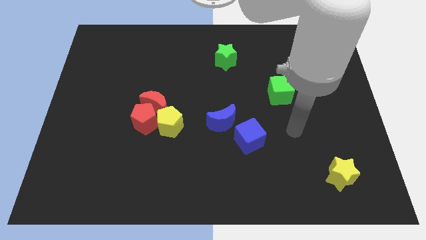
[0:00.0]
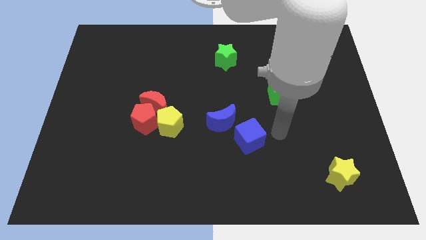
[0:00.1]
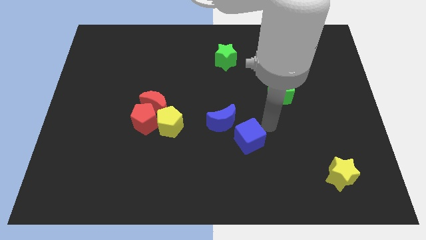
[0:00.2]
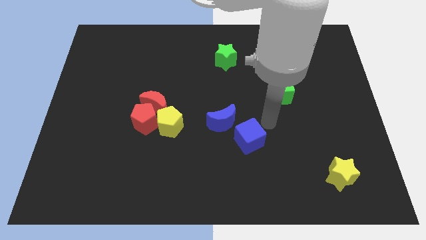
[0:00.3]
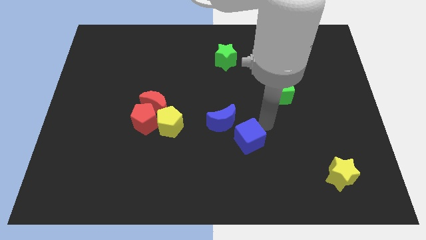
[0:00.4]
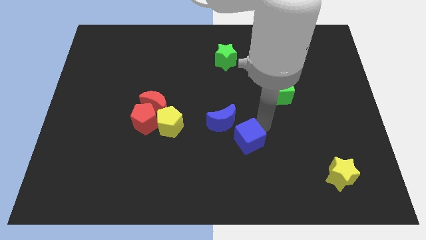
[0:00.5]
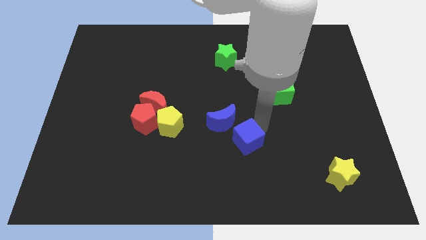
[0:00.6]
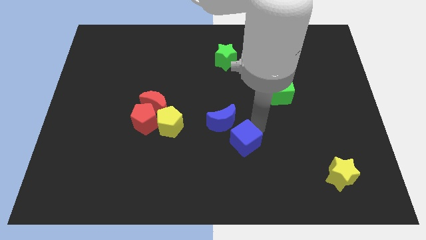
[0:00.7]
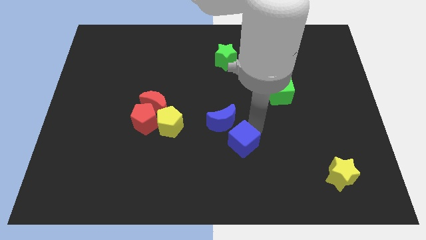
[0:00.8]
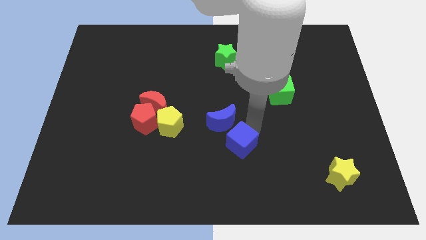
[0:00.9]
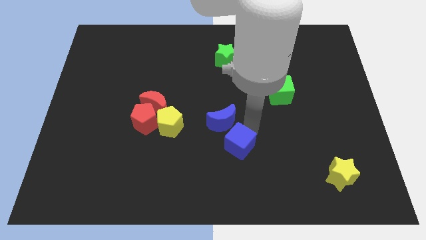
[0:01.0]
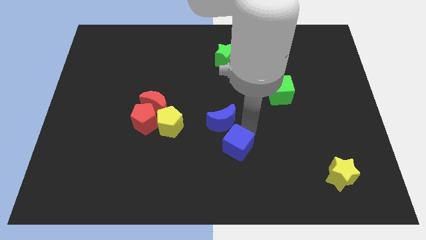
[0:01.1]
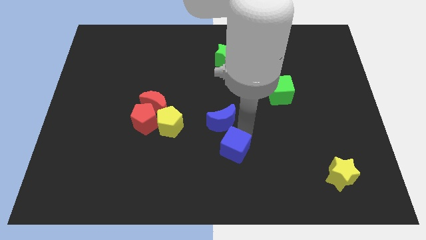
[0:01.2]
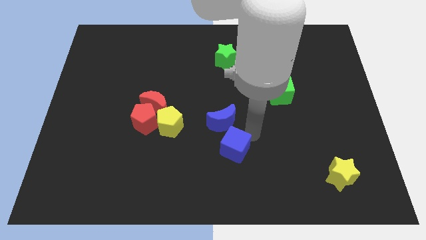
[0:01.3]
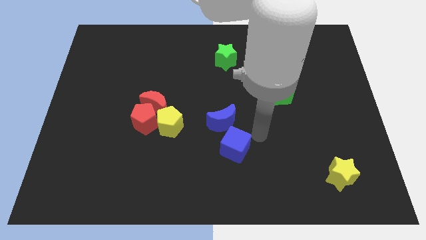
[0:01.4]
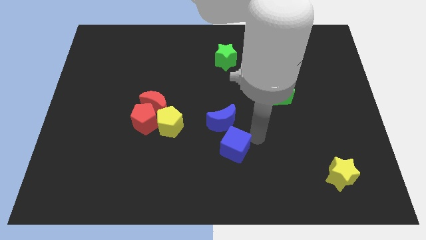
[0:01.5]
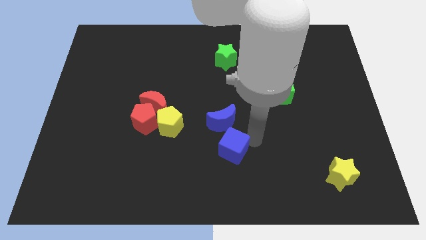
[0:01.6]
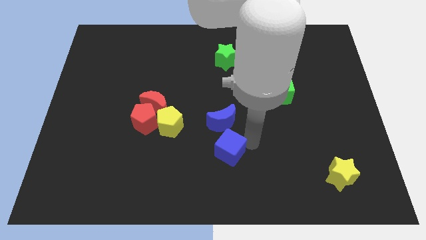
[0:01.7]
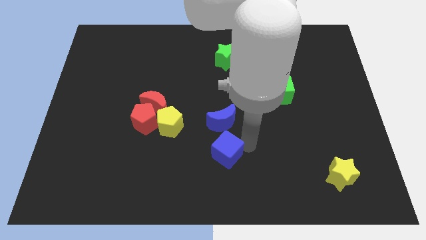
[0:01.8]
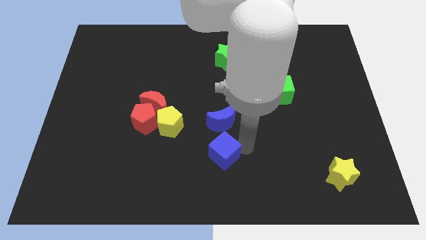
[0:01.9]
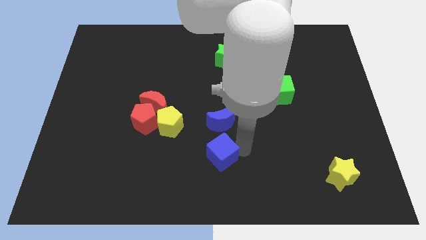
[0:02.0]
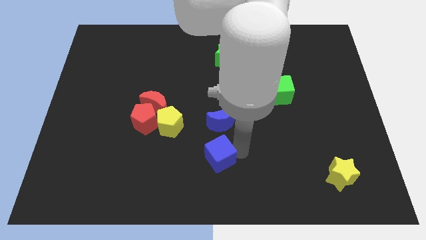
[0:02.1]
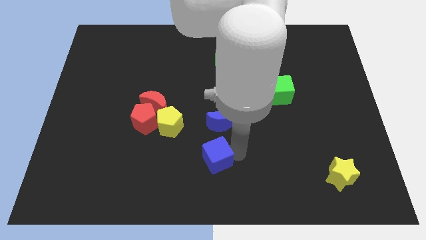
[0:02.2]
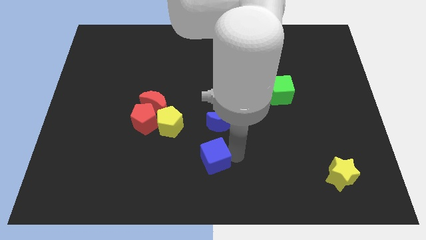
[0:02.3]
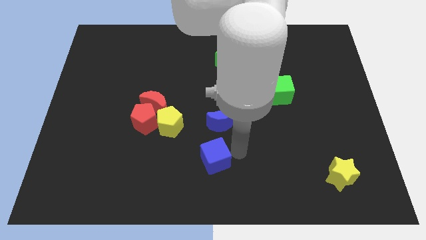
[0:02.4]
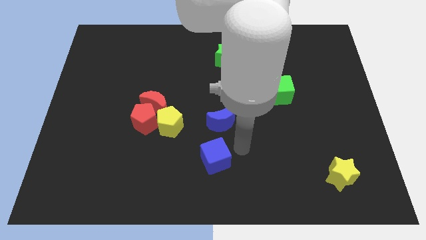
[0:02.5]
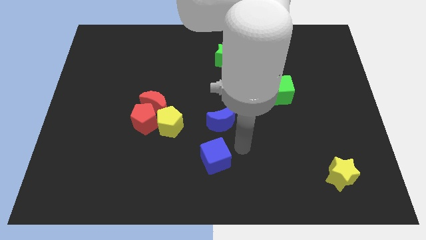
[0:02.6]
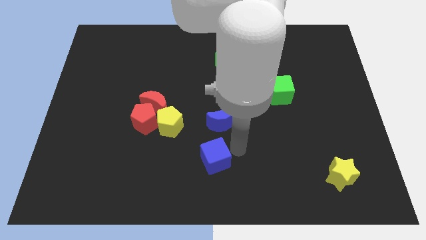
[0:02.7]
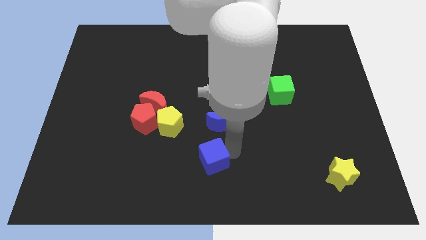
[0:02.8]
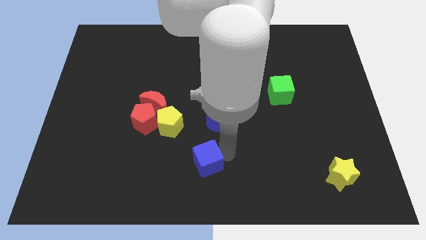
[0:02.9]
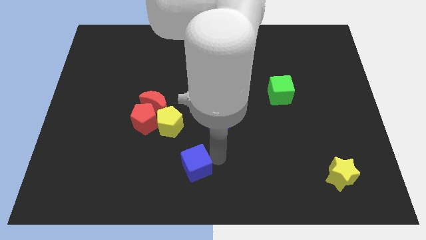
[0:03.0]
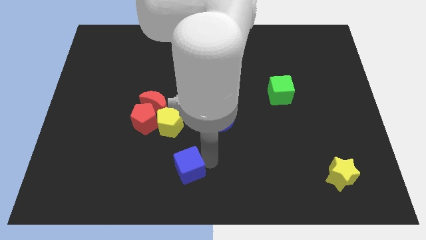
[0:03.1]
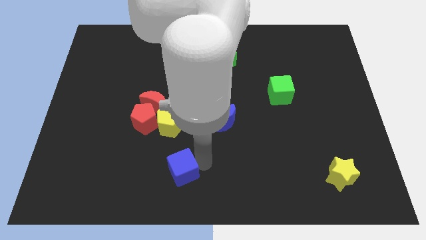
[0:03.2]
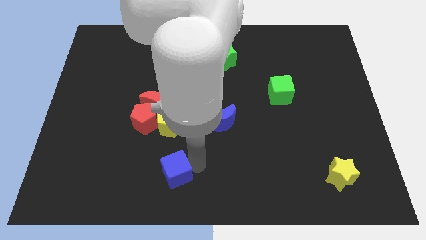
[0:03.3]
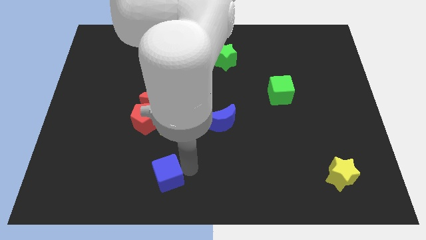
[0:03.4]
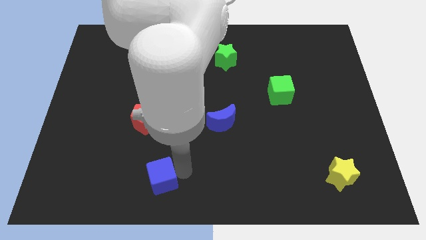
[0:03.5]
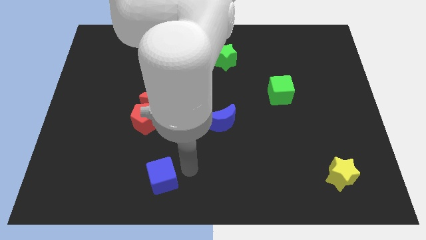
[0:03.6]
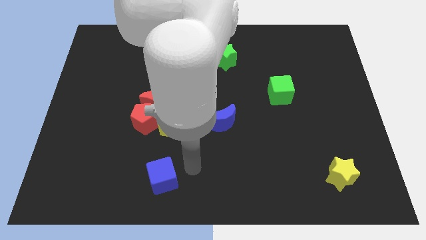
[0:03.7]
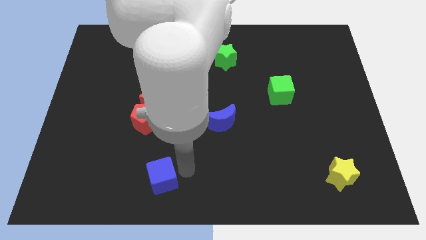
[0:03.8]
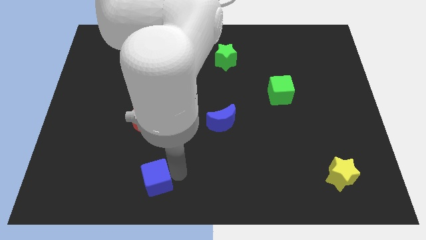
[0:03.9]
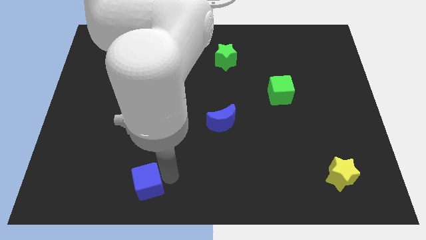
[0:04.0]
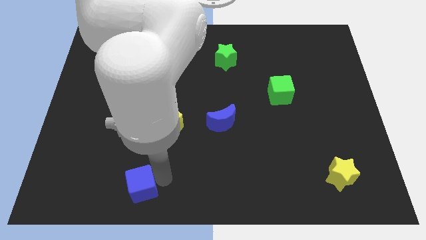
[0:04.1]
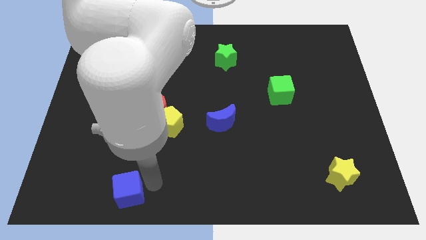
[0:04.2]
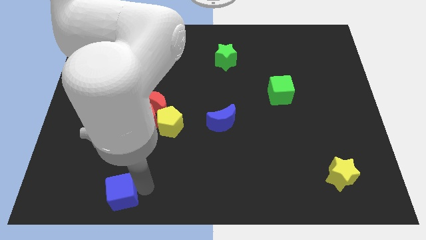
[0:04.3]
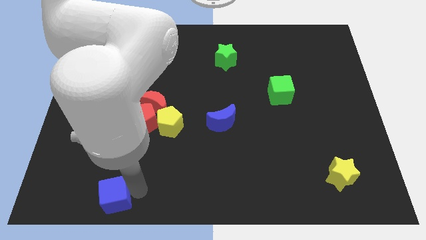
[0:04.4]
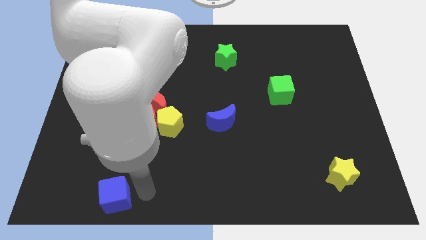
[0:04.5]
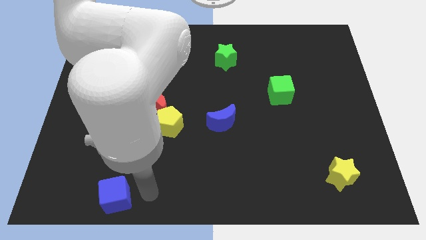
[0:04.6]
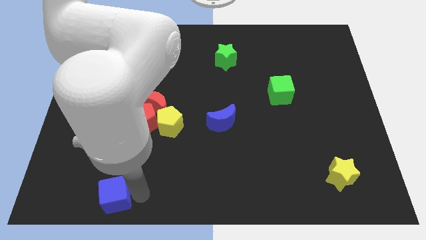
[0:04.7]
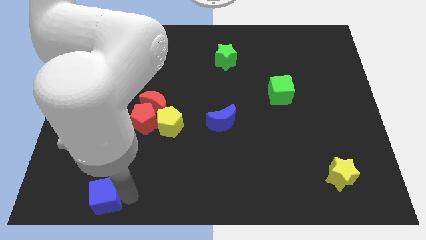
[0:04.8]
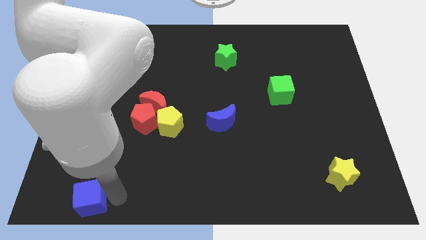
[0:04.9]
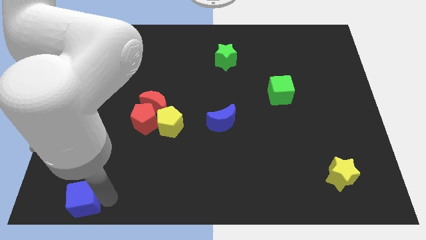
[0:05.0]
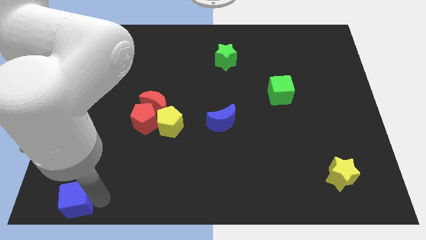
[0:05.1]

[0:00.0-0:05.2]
push the blue cube to the bottom left
